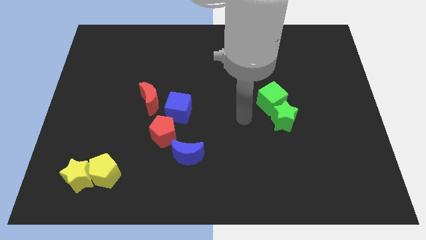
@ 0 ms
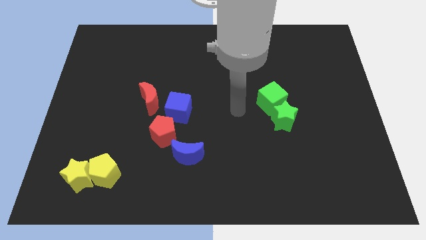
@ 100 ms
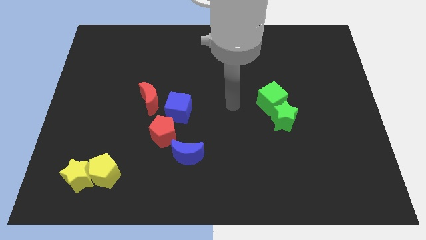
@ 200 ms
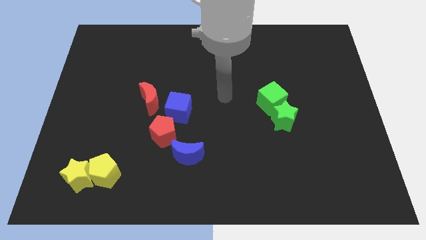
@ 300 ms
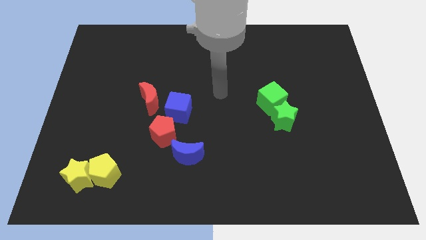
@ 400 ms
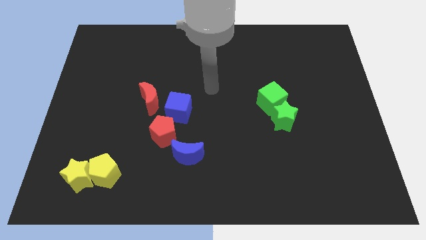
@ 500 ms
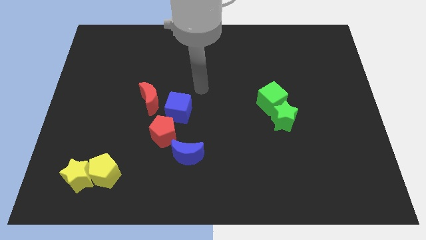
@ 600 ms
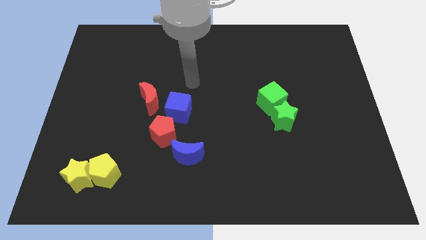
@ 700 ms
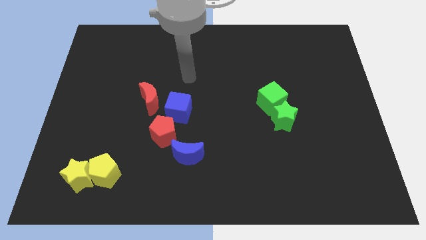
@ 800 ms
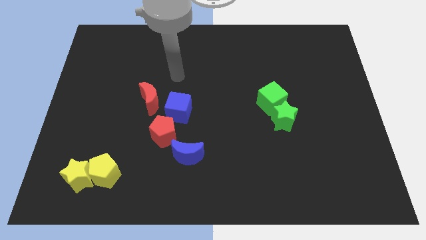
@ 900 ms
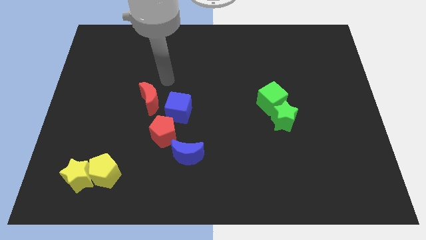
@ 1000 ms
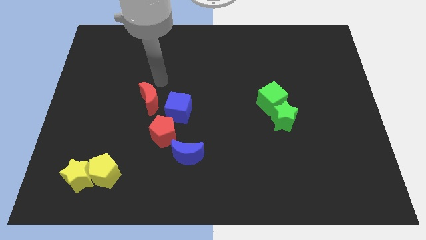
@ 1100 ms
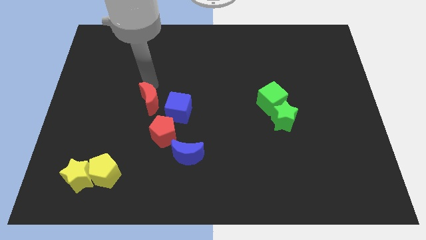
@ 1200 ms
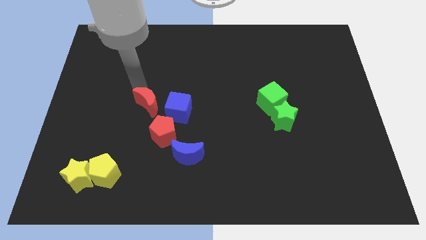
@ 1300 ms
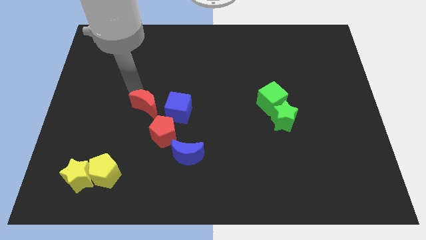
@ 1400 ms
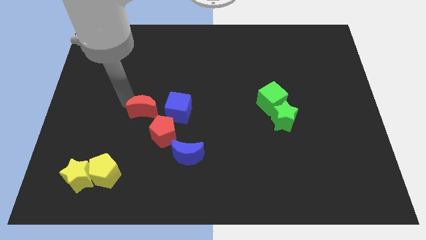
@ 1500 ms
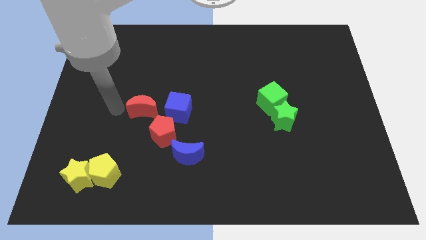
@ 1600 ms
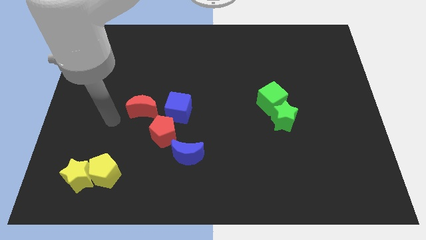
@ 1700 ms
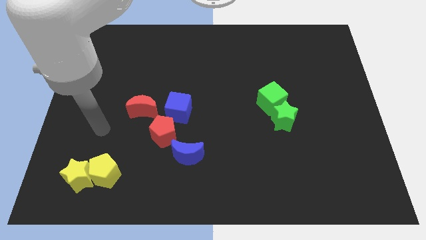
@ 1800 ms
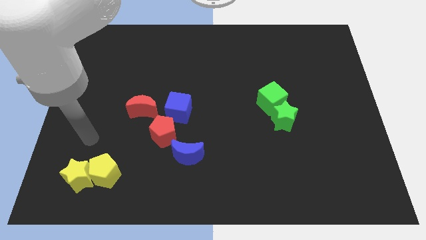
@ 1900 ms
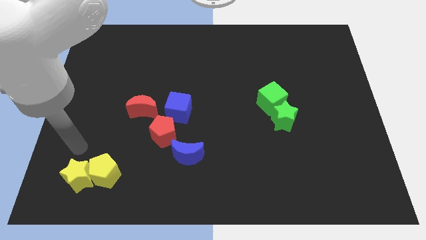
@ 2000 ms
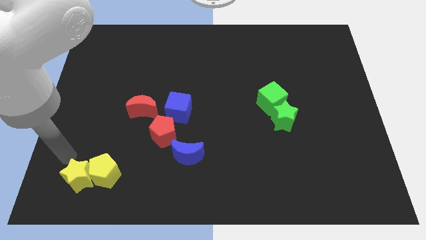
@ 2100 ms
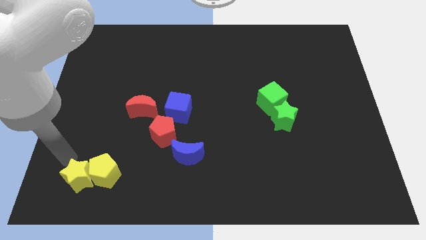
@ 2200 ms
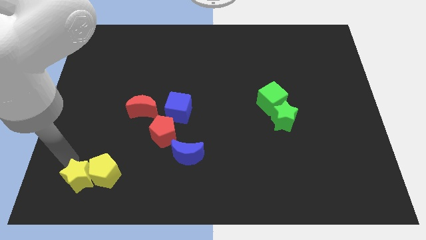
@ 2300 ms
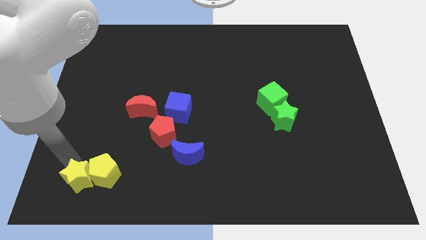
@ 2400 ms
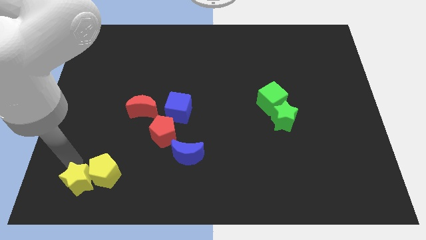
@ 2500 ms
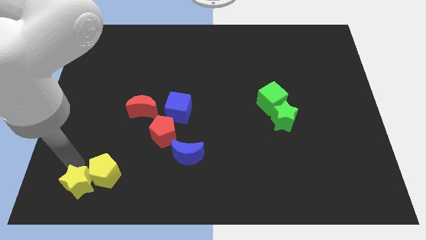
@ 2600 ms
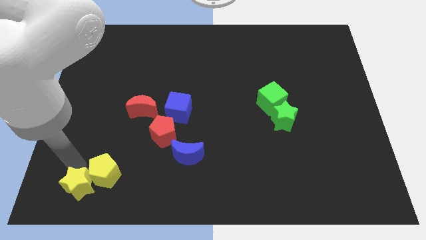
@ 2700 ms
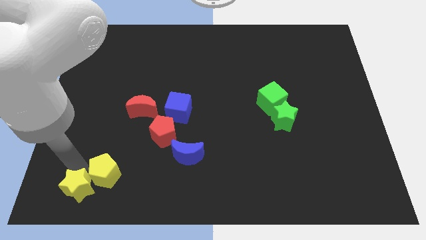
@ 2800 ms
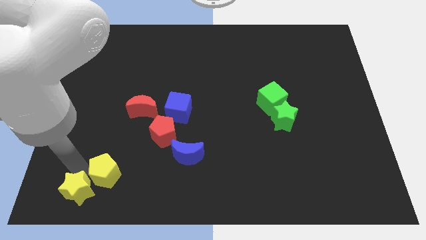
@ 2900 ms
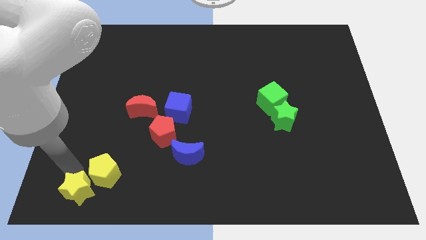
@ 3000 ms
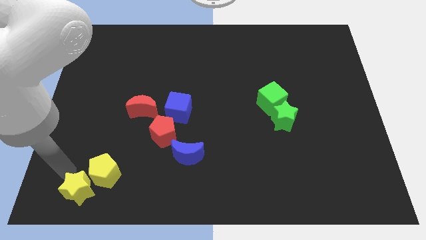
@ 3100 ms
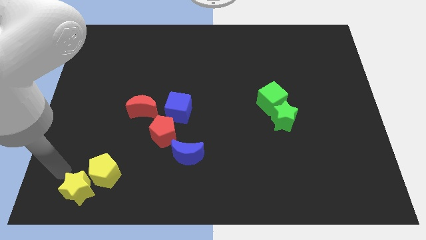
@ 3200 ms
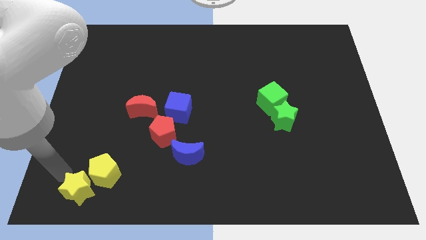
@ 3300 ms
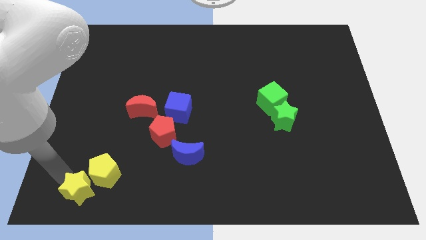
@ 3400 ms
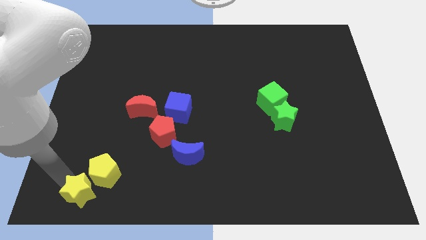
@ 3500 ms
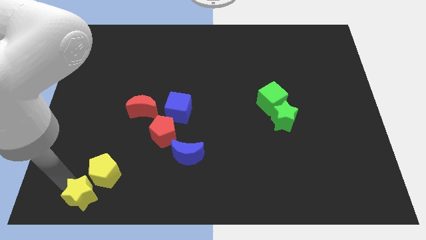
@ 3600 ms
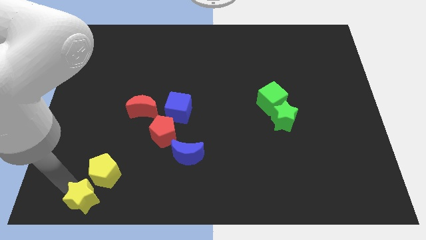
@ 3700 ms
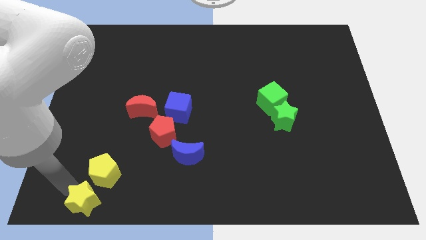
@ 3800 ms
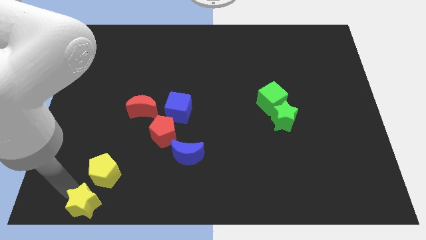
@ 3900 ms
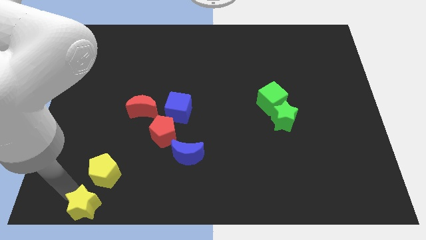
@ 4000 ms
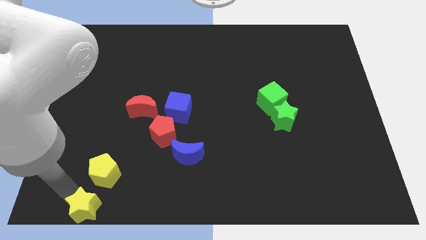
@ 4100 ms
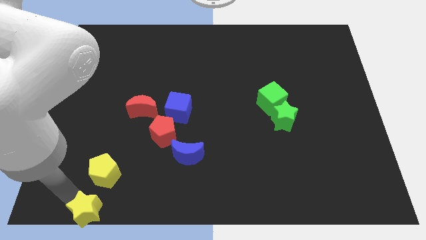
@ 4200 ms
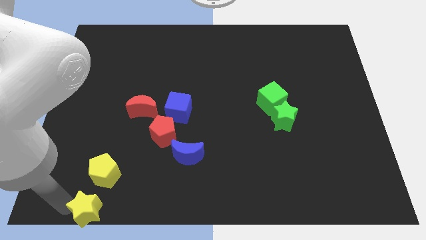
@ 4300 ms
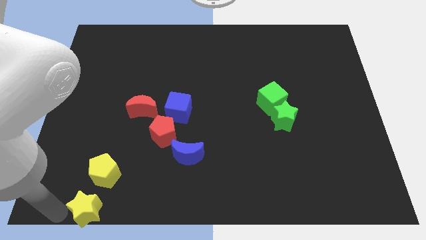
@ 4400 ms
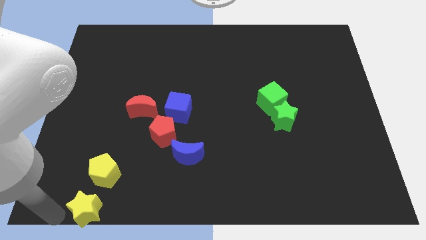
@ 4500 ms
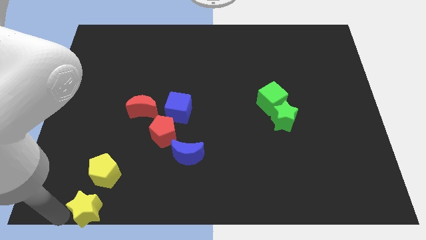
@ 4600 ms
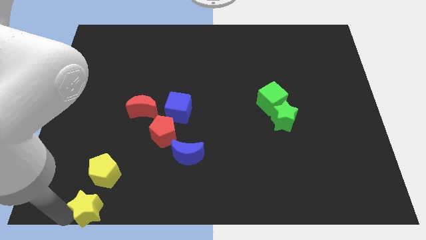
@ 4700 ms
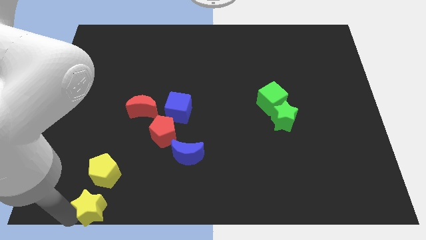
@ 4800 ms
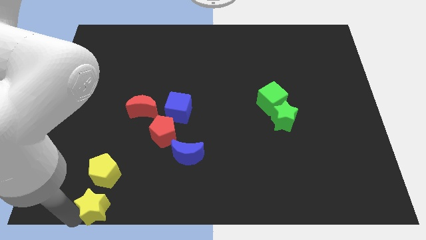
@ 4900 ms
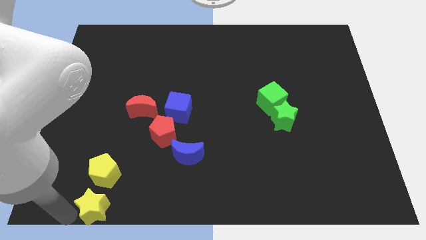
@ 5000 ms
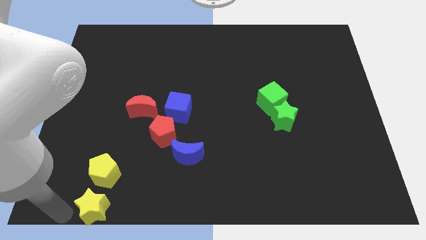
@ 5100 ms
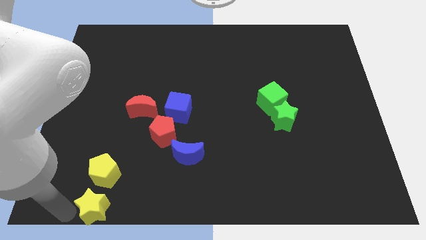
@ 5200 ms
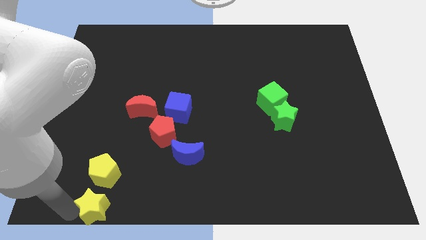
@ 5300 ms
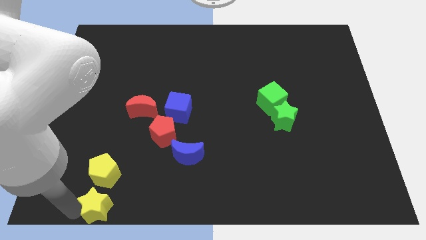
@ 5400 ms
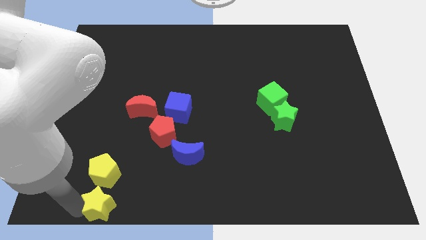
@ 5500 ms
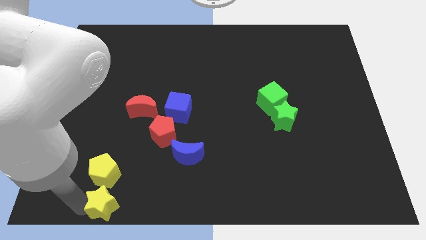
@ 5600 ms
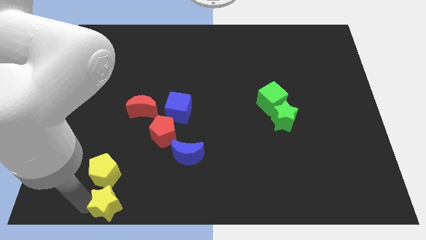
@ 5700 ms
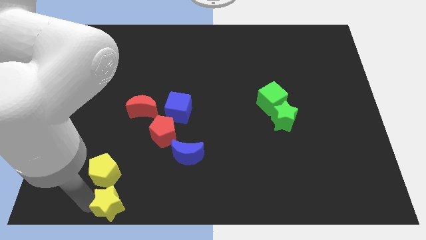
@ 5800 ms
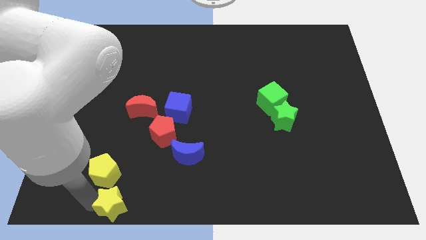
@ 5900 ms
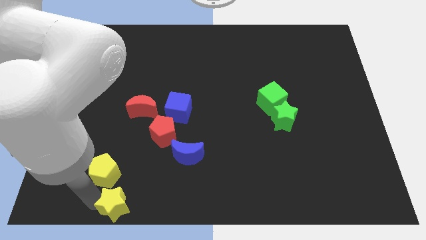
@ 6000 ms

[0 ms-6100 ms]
slightly slide the yellow star to the right

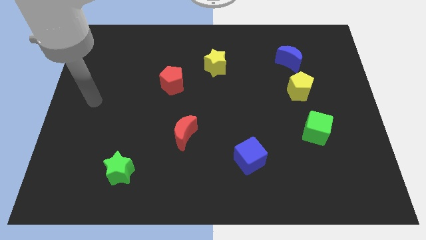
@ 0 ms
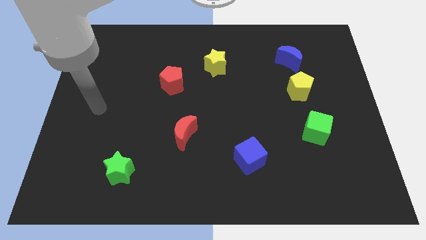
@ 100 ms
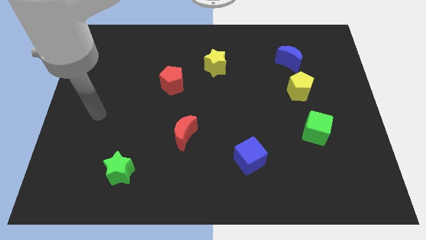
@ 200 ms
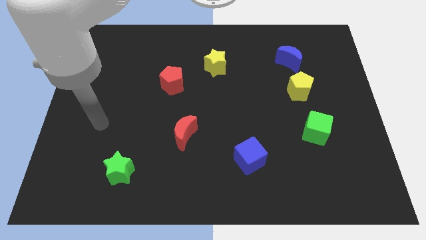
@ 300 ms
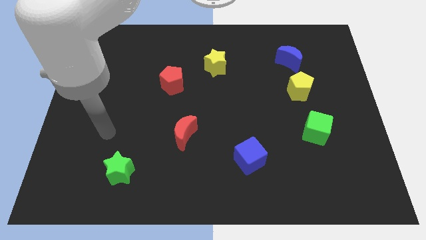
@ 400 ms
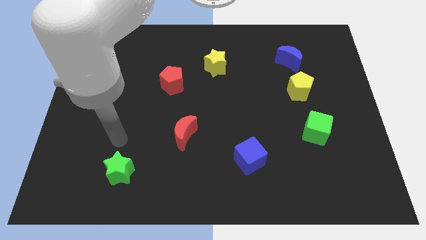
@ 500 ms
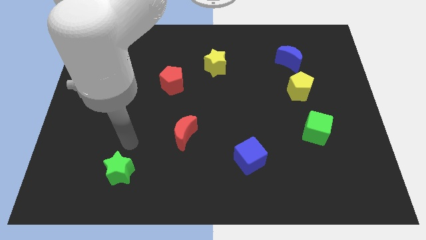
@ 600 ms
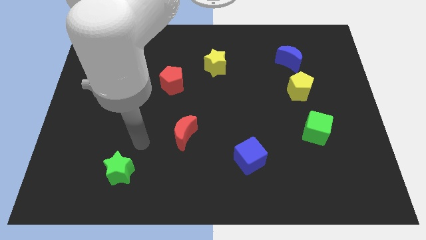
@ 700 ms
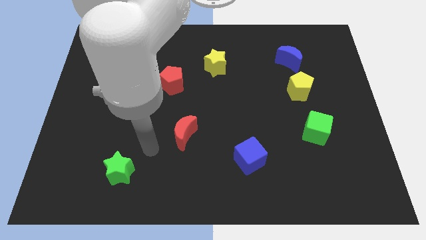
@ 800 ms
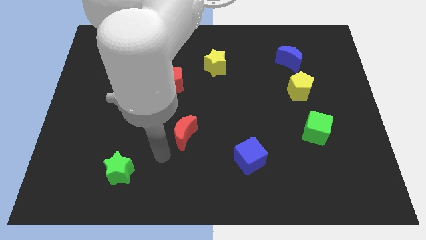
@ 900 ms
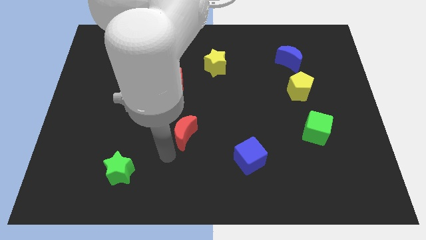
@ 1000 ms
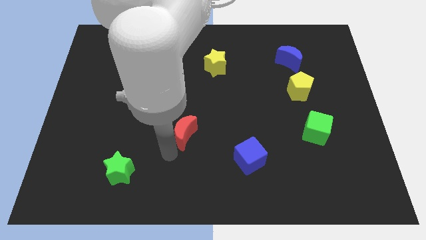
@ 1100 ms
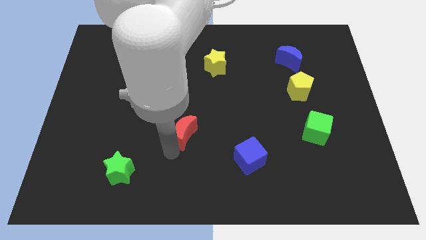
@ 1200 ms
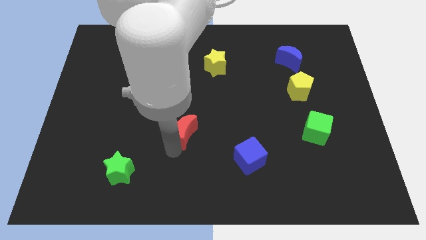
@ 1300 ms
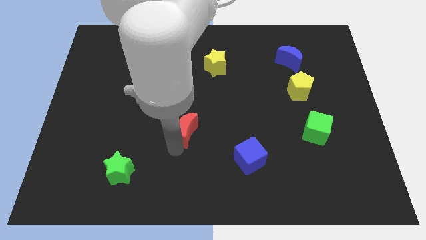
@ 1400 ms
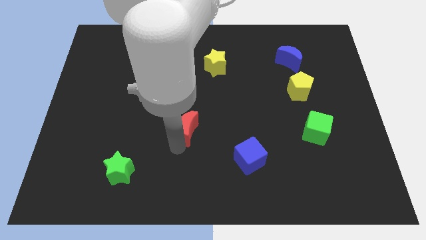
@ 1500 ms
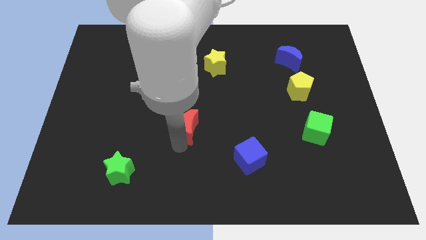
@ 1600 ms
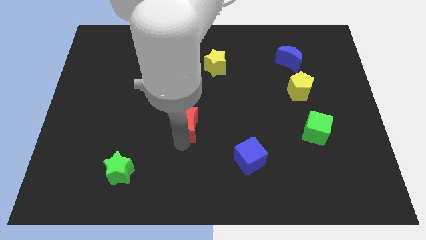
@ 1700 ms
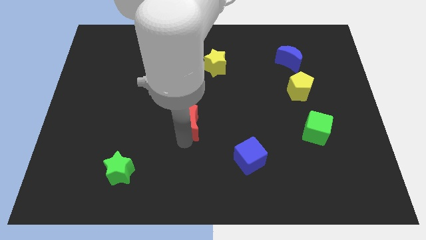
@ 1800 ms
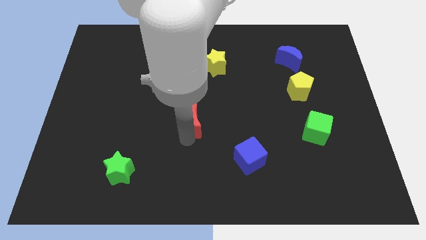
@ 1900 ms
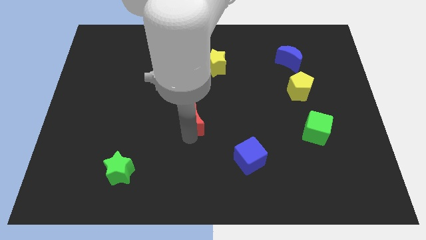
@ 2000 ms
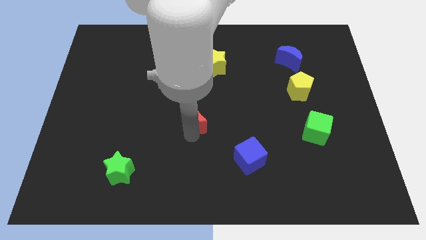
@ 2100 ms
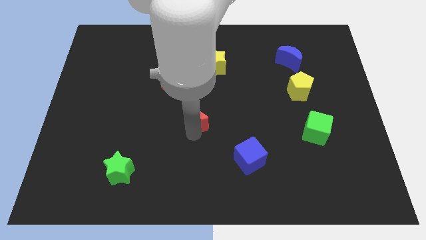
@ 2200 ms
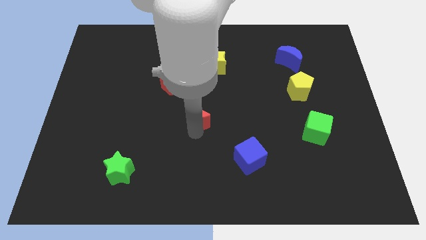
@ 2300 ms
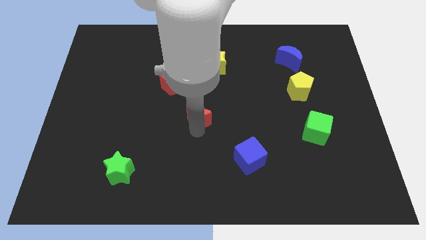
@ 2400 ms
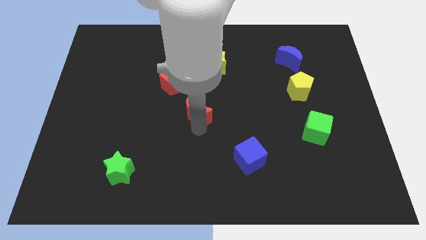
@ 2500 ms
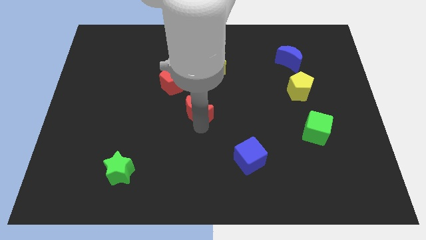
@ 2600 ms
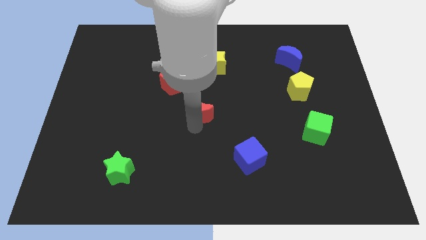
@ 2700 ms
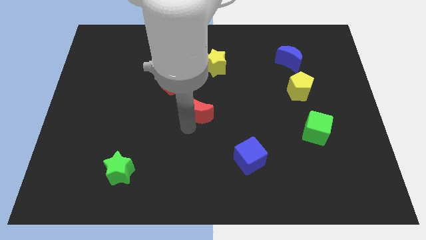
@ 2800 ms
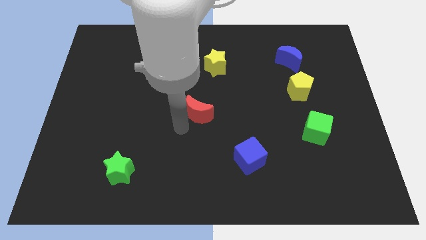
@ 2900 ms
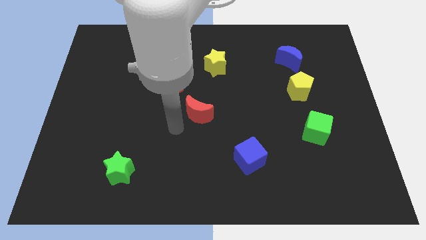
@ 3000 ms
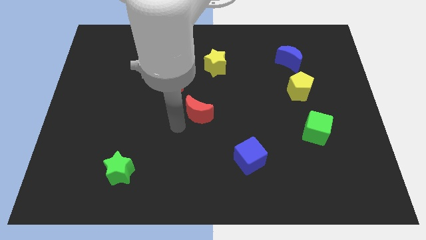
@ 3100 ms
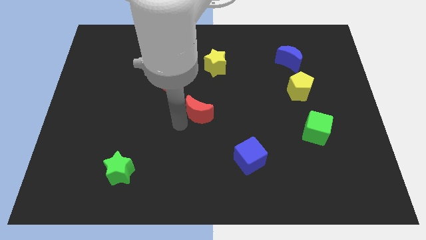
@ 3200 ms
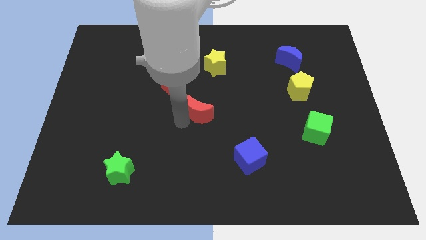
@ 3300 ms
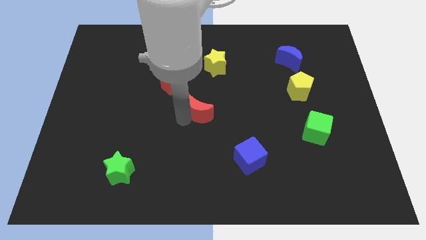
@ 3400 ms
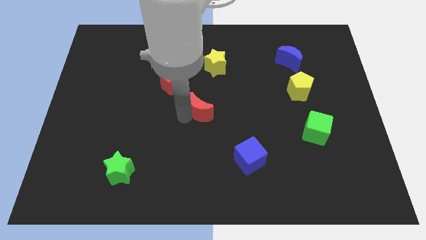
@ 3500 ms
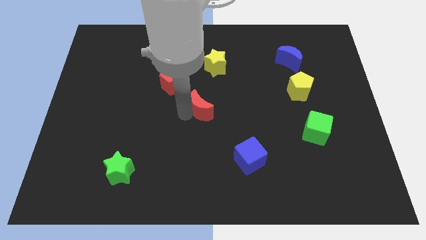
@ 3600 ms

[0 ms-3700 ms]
slightly move the red moon diagonally upwards and to the right
